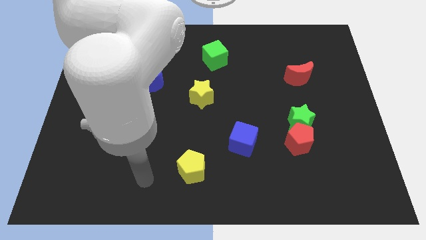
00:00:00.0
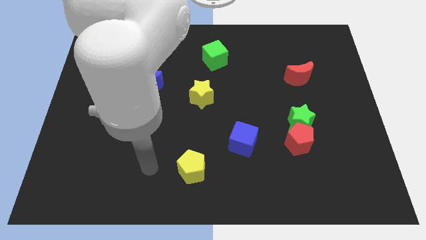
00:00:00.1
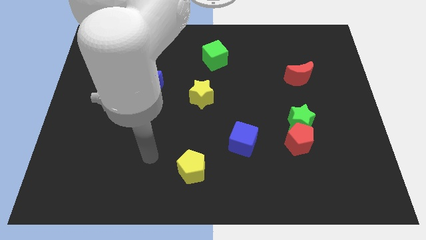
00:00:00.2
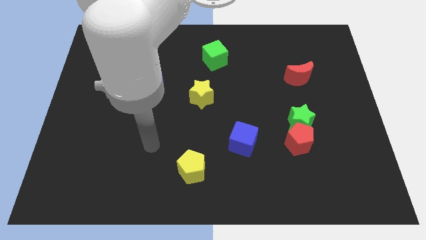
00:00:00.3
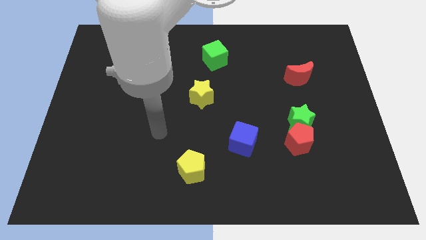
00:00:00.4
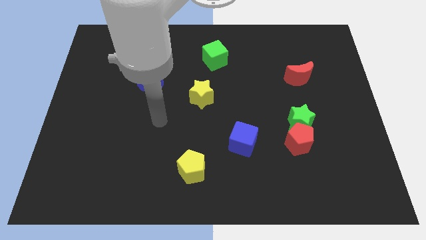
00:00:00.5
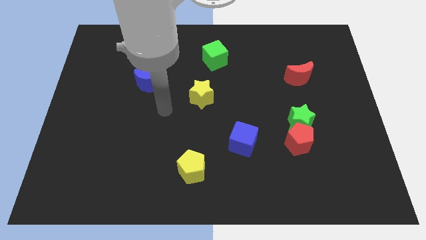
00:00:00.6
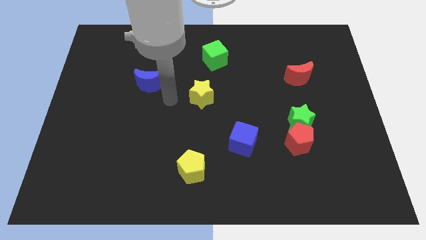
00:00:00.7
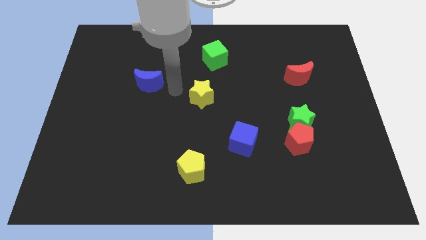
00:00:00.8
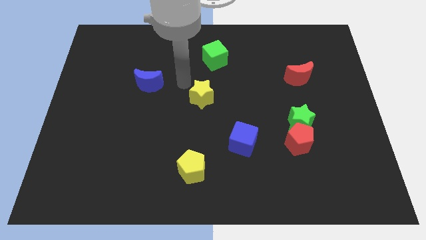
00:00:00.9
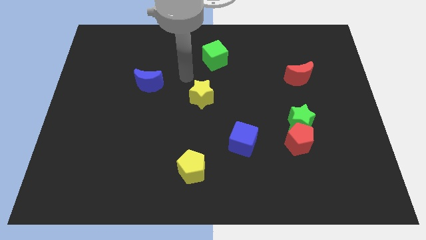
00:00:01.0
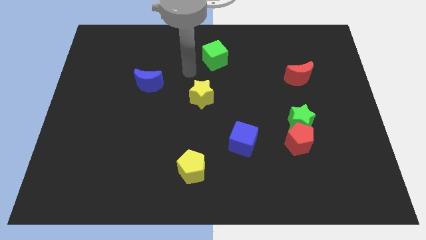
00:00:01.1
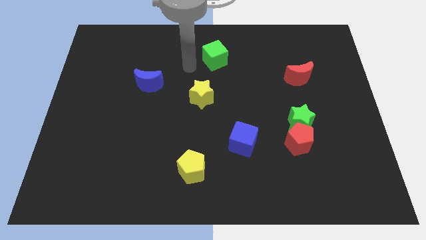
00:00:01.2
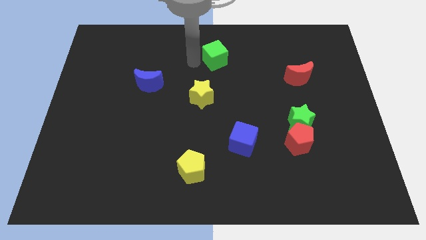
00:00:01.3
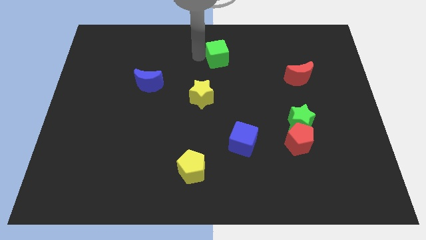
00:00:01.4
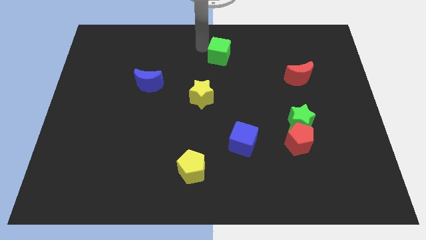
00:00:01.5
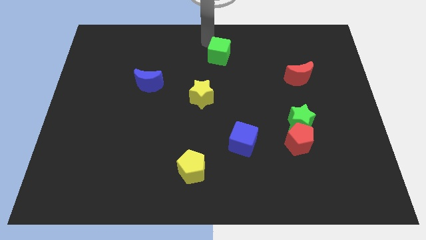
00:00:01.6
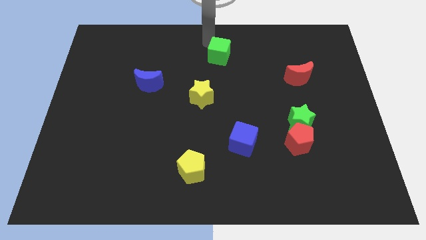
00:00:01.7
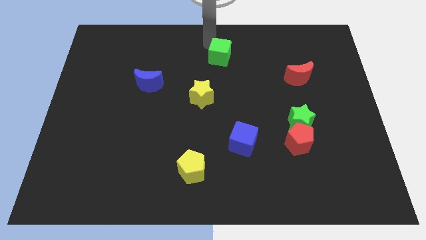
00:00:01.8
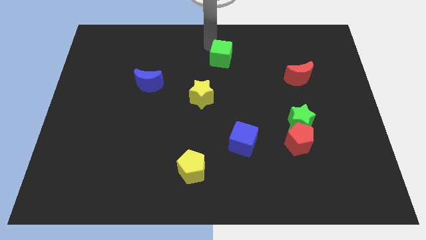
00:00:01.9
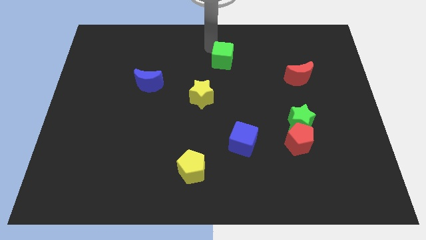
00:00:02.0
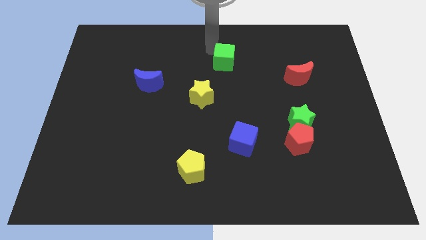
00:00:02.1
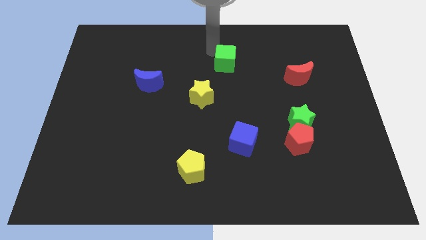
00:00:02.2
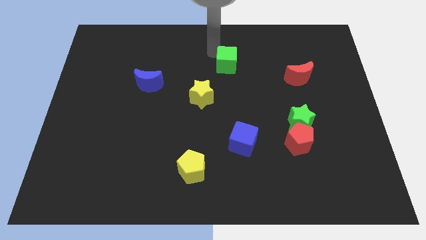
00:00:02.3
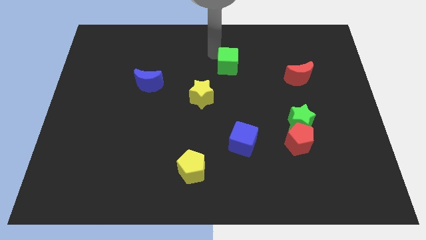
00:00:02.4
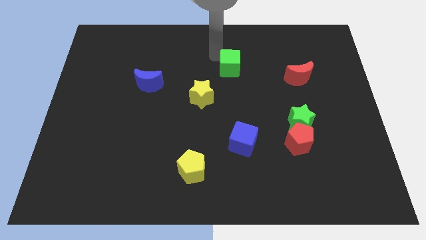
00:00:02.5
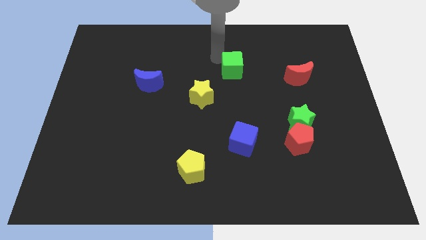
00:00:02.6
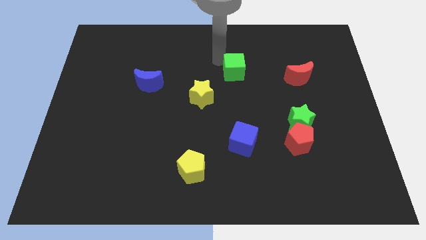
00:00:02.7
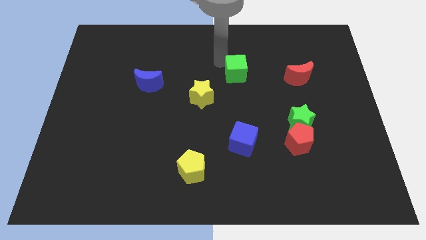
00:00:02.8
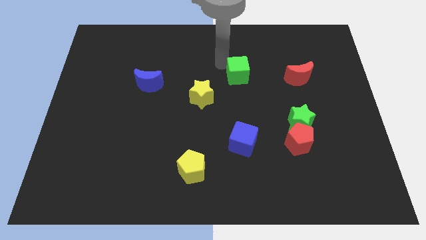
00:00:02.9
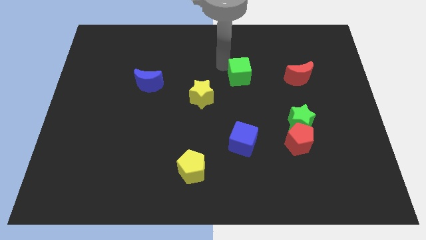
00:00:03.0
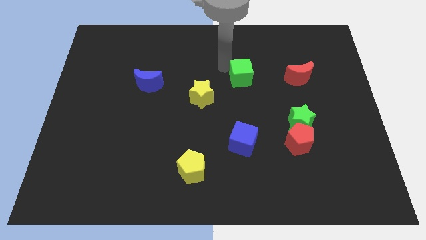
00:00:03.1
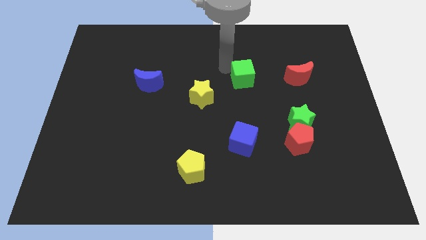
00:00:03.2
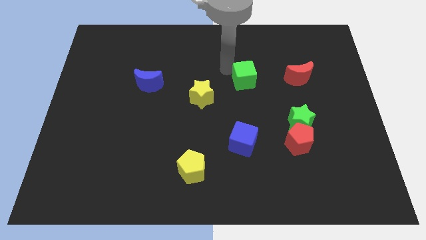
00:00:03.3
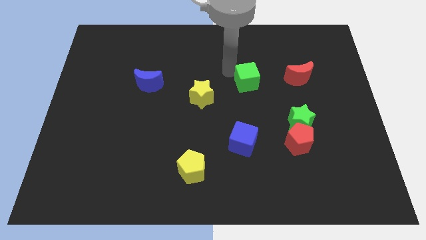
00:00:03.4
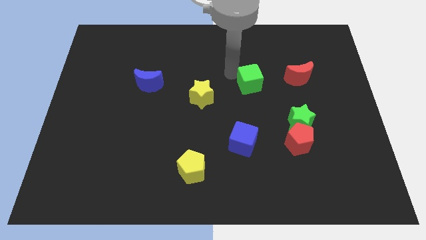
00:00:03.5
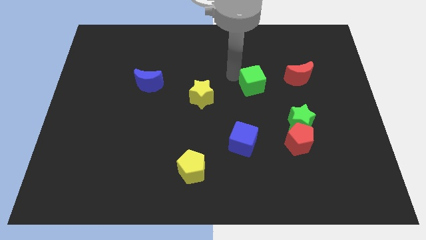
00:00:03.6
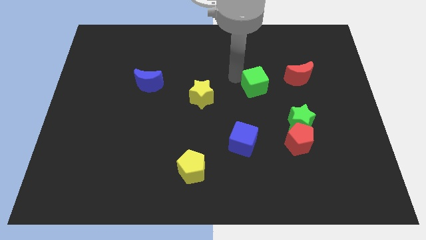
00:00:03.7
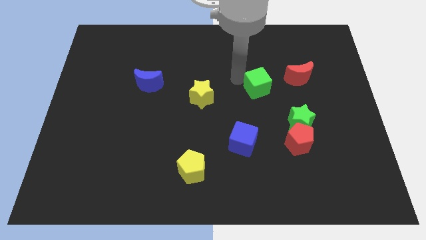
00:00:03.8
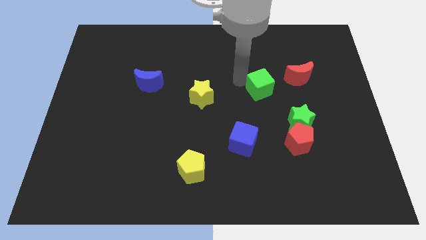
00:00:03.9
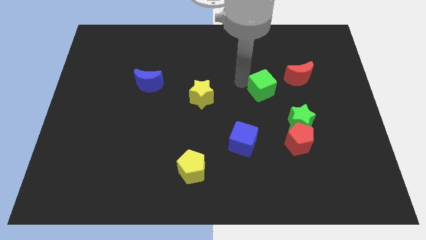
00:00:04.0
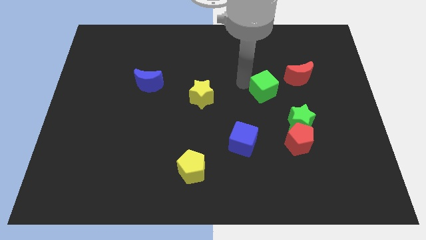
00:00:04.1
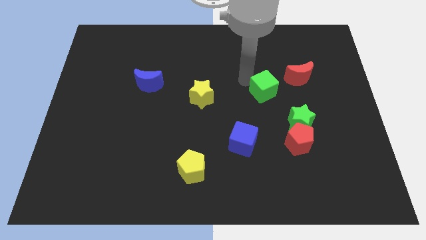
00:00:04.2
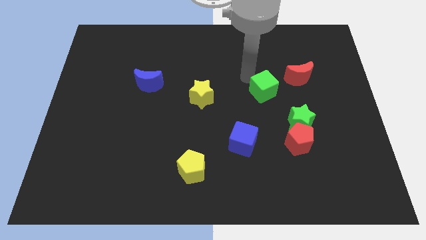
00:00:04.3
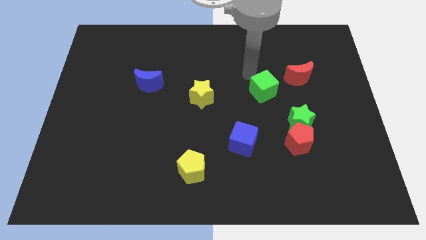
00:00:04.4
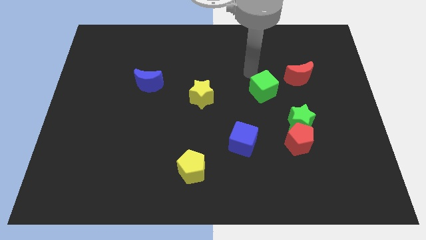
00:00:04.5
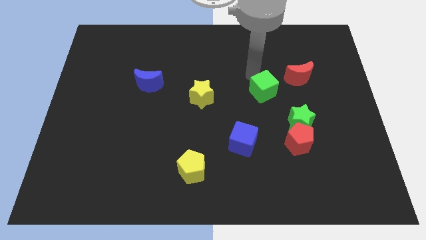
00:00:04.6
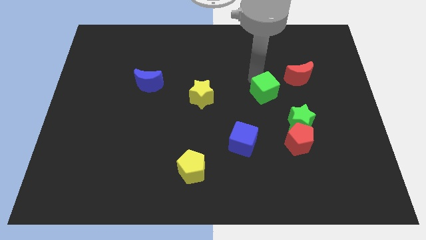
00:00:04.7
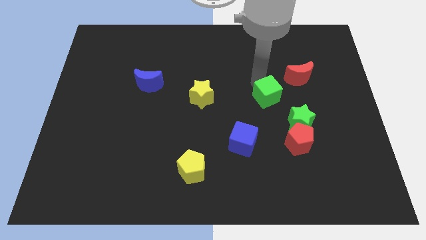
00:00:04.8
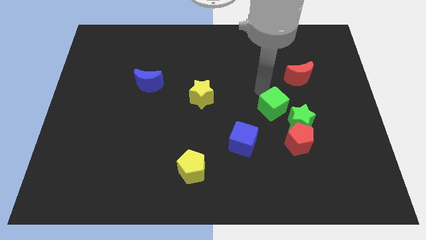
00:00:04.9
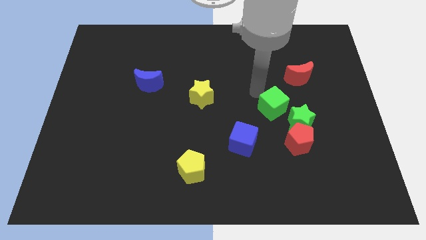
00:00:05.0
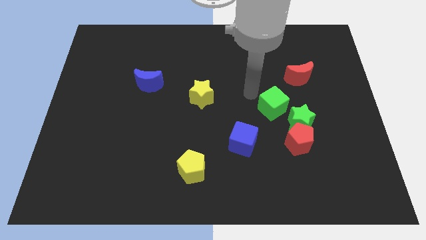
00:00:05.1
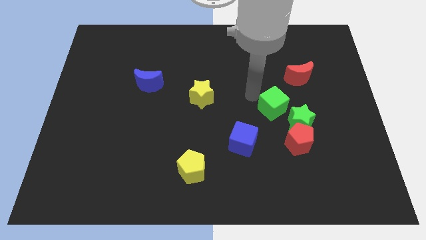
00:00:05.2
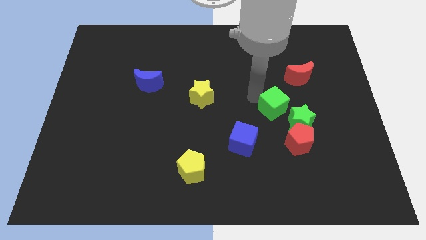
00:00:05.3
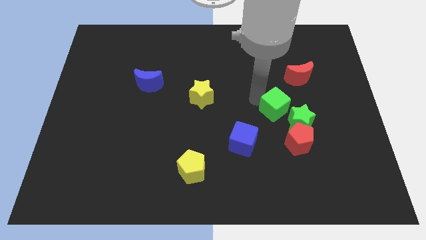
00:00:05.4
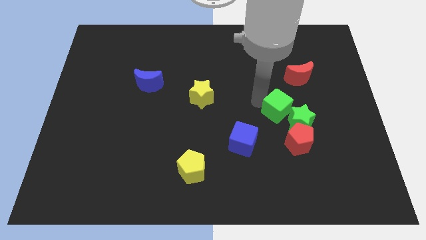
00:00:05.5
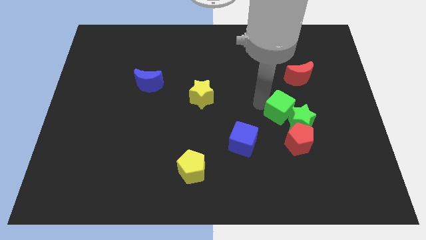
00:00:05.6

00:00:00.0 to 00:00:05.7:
push the green cube close to the green star

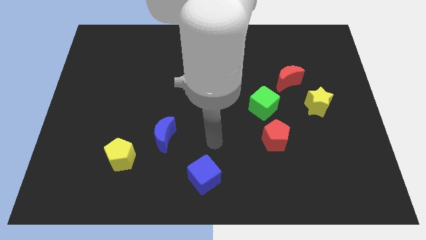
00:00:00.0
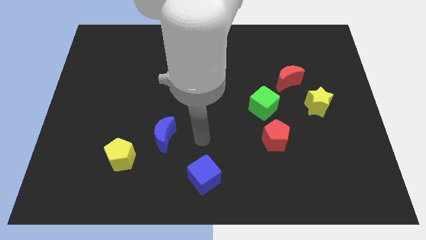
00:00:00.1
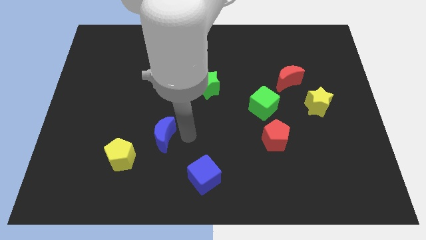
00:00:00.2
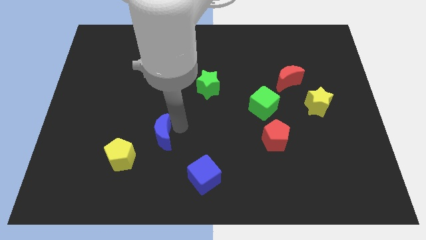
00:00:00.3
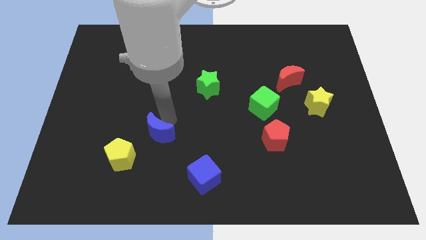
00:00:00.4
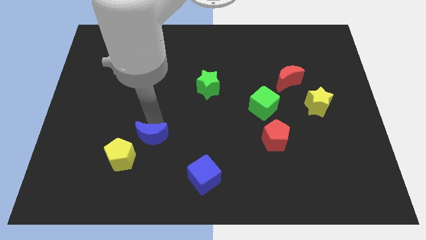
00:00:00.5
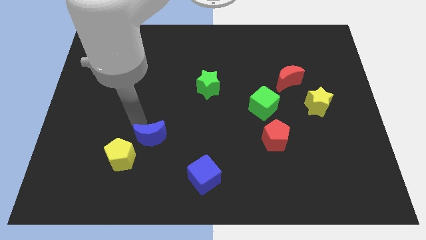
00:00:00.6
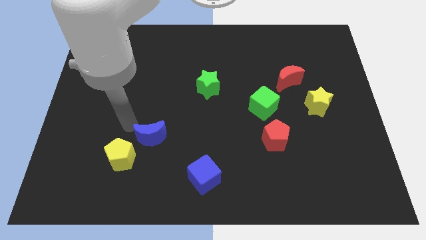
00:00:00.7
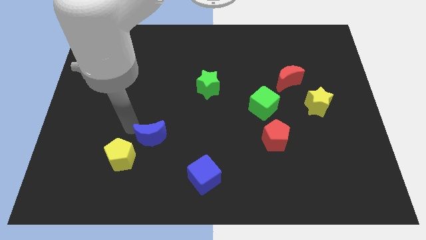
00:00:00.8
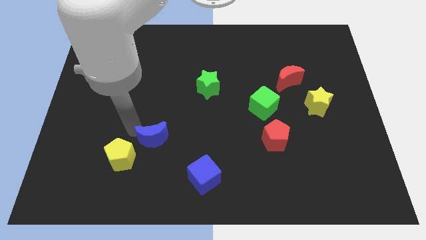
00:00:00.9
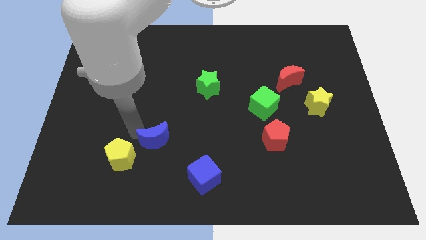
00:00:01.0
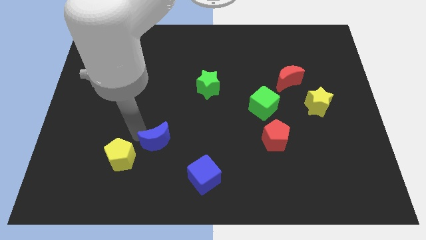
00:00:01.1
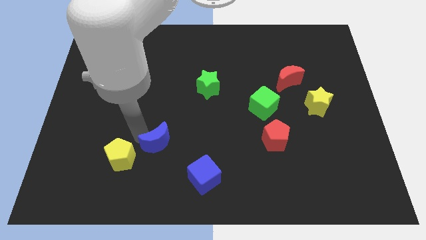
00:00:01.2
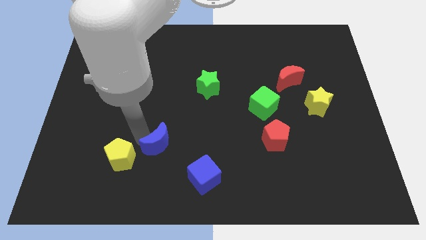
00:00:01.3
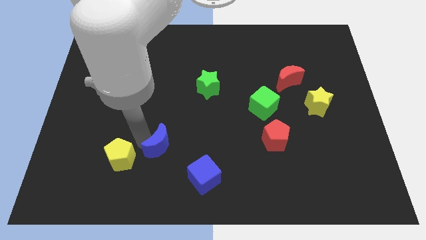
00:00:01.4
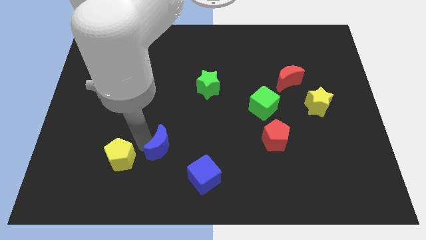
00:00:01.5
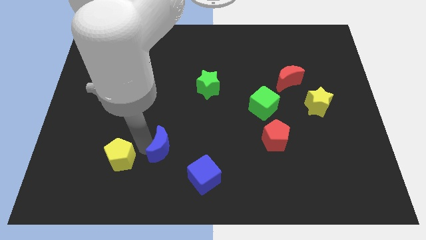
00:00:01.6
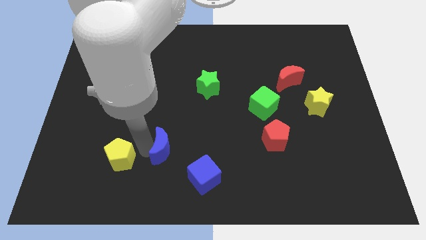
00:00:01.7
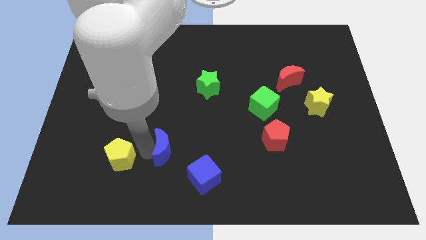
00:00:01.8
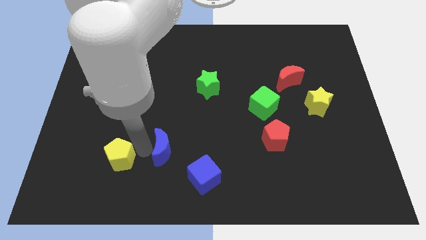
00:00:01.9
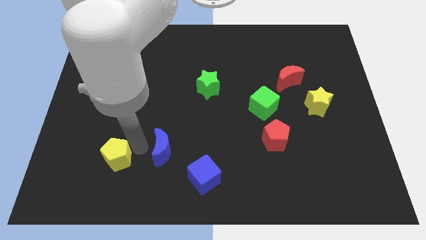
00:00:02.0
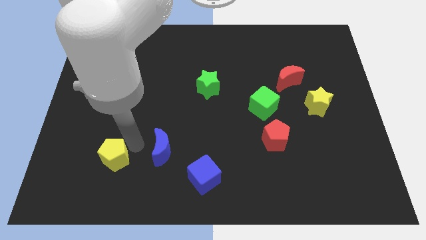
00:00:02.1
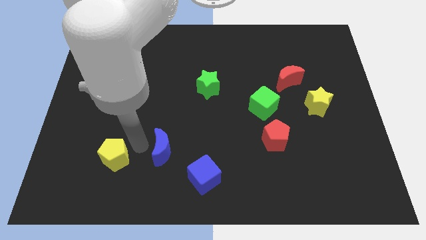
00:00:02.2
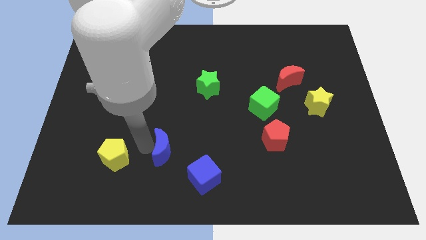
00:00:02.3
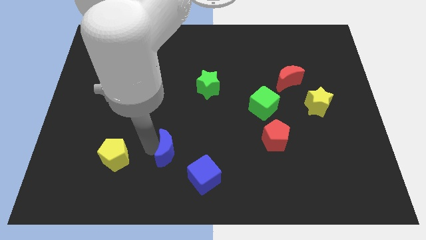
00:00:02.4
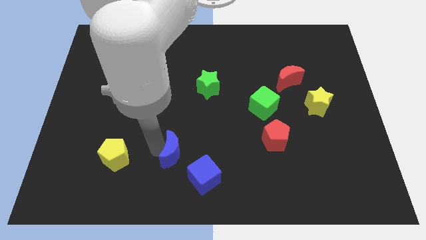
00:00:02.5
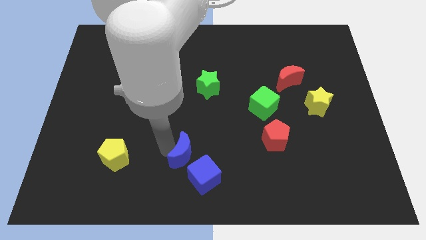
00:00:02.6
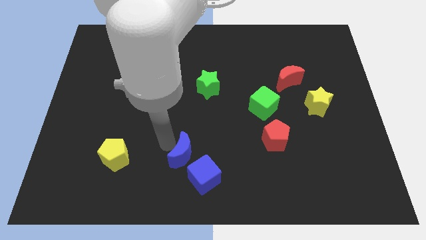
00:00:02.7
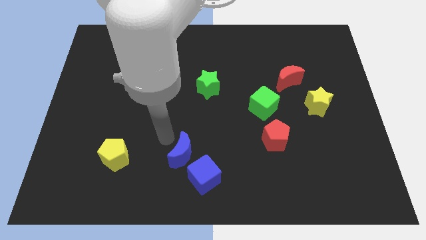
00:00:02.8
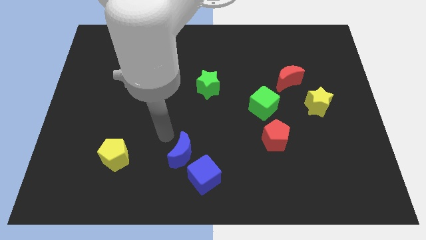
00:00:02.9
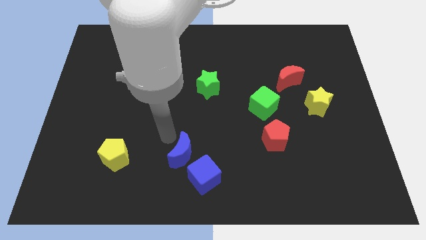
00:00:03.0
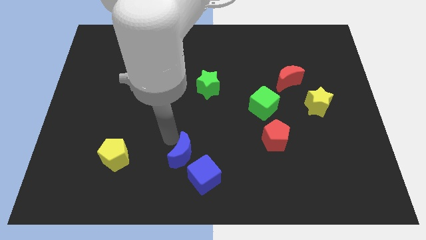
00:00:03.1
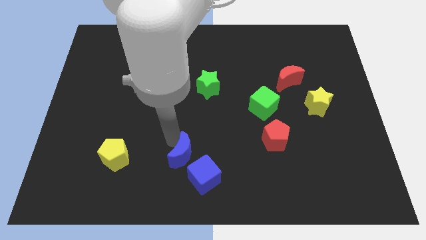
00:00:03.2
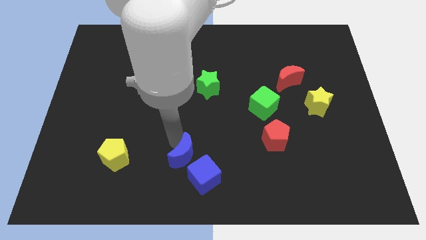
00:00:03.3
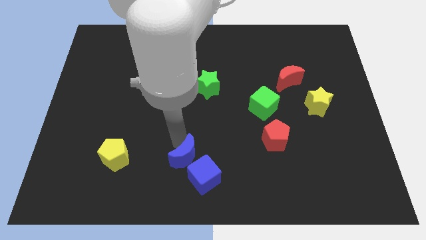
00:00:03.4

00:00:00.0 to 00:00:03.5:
move the blue moon towards the blue cube
